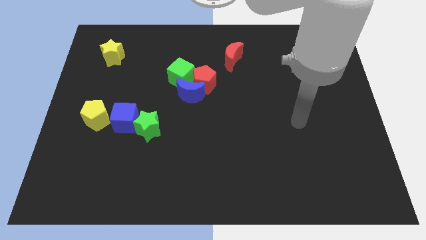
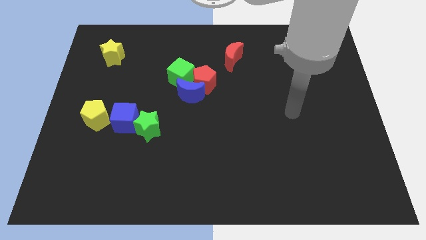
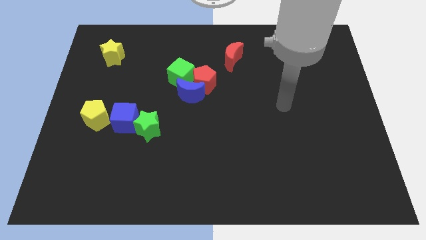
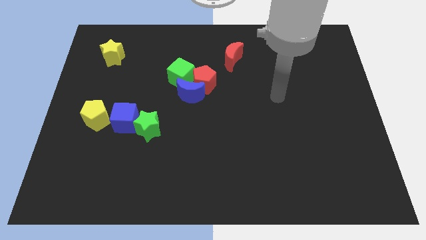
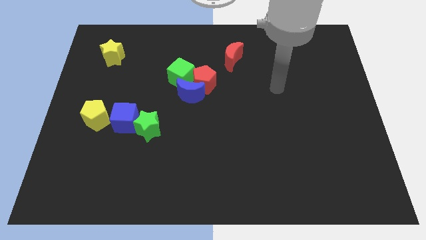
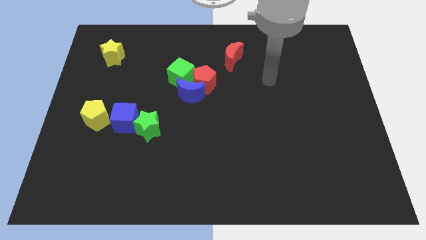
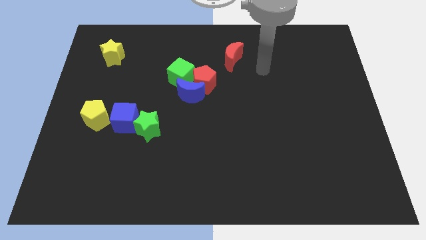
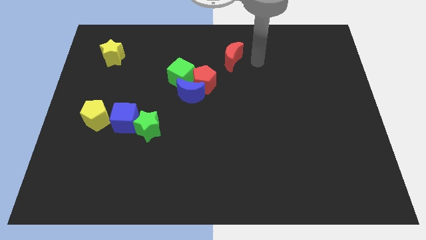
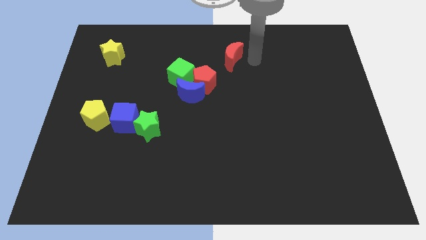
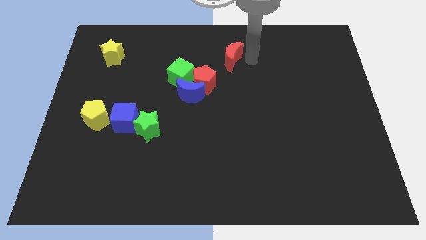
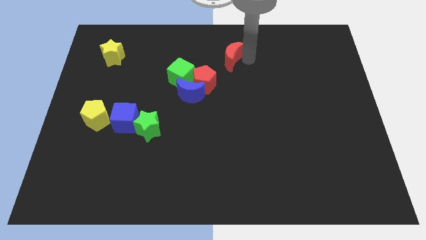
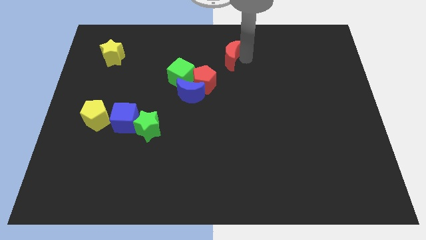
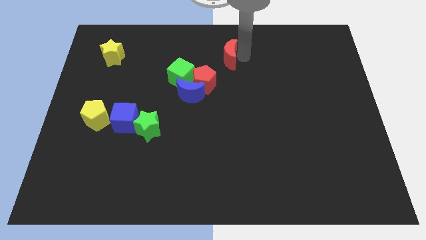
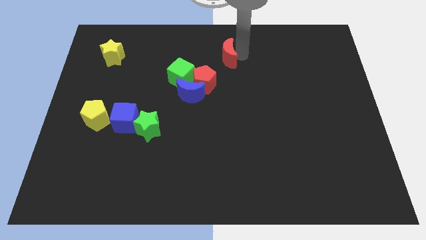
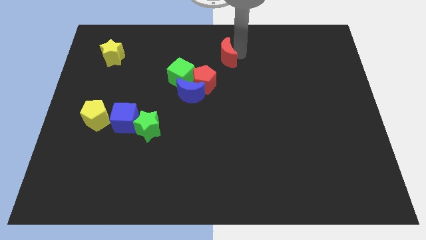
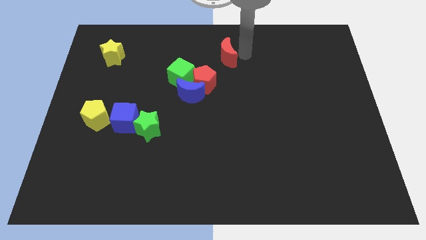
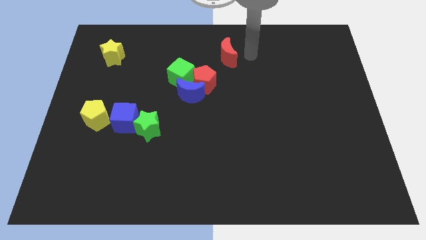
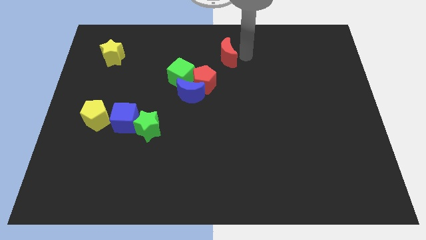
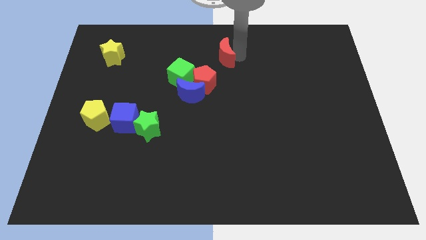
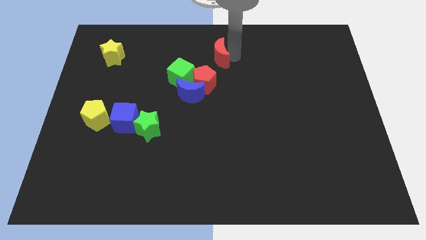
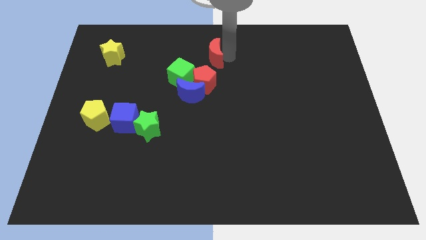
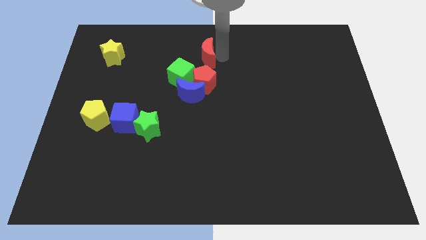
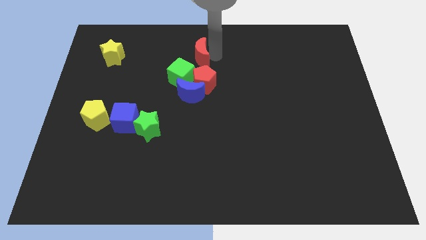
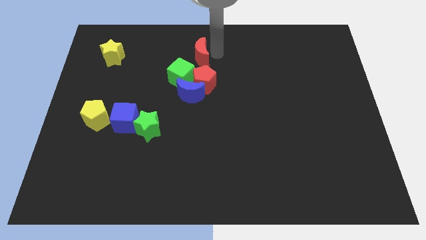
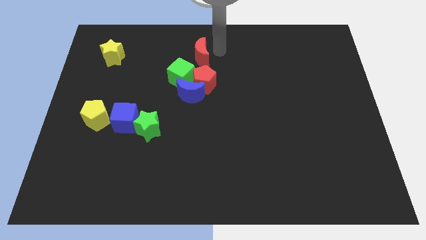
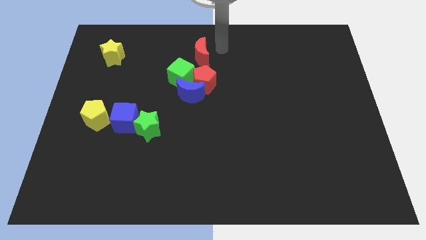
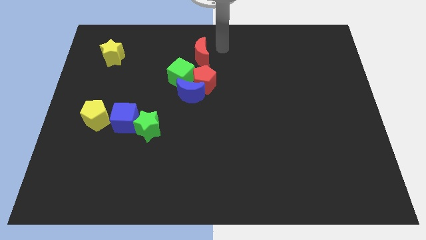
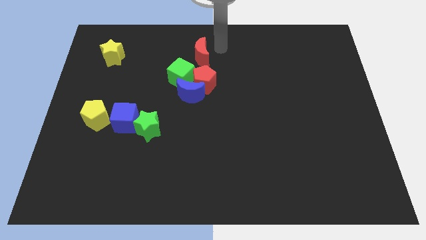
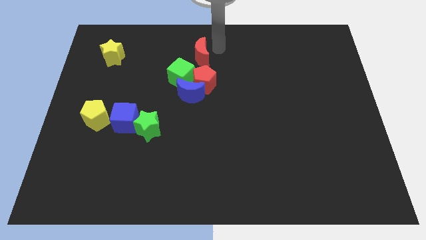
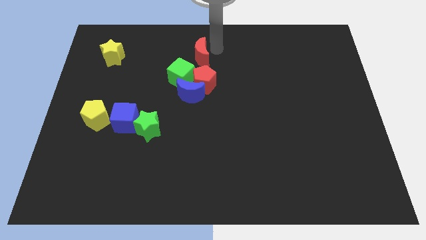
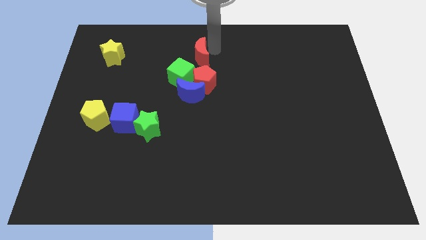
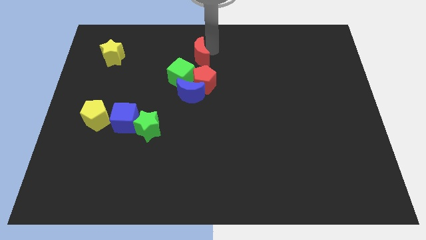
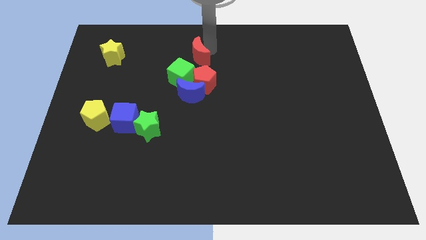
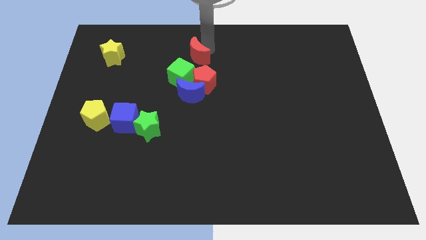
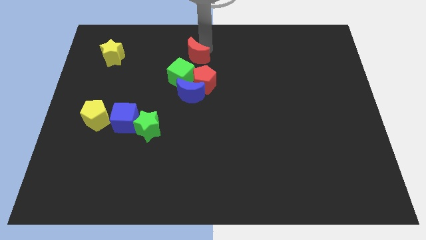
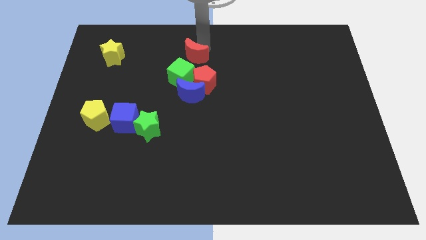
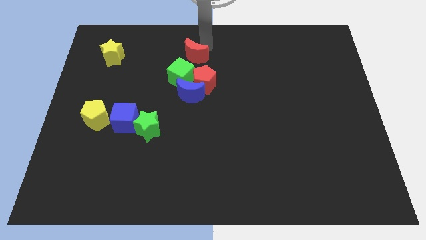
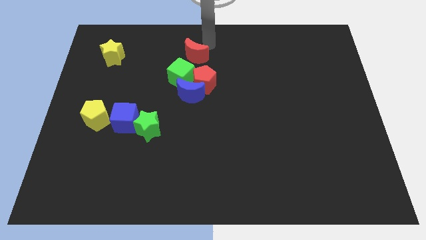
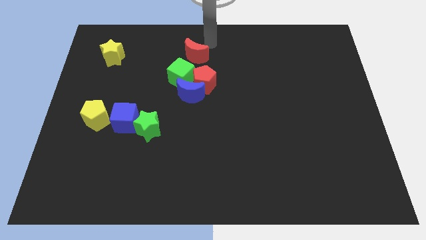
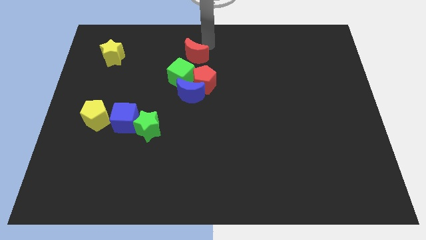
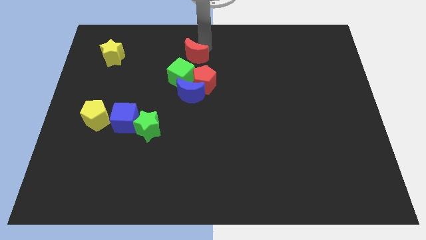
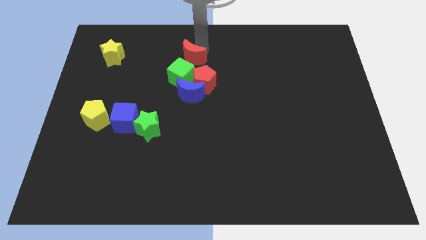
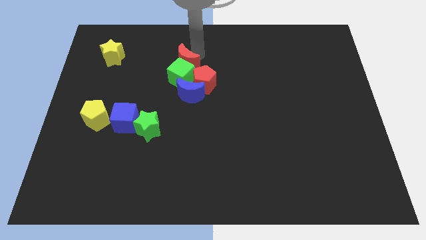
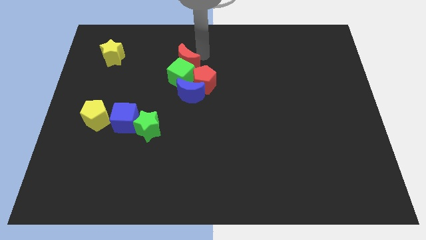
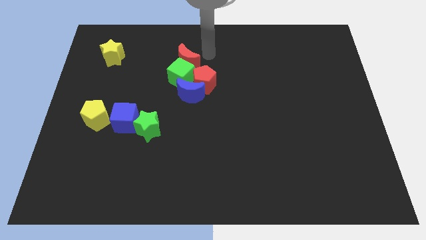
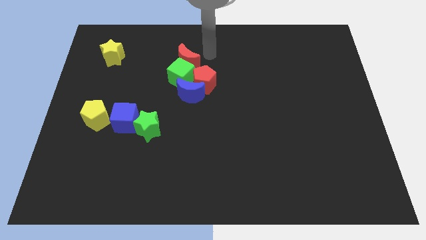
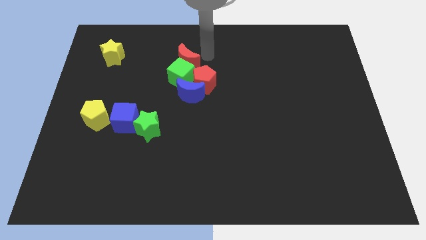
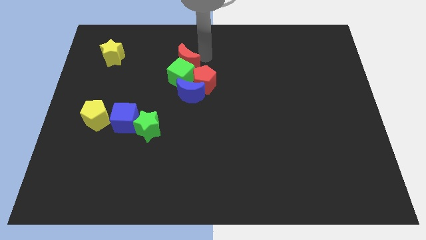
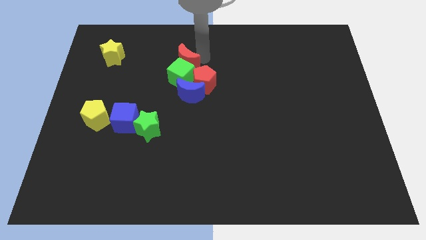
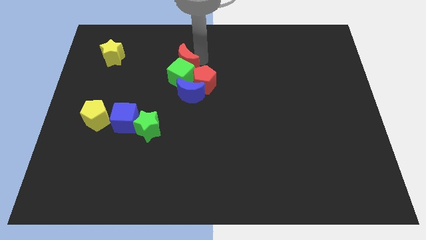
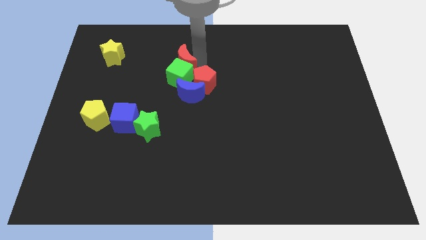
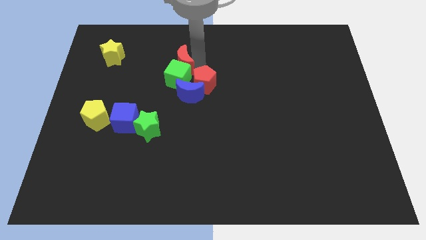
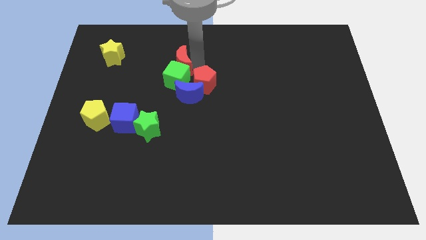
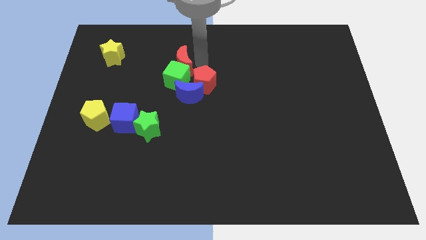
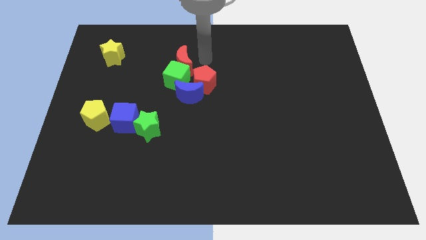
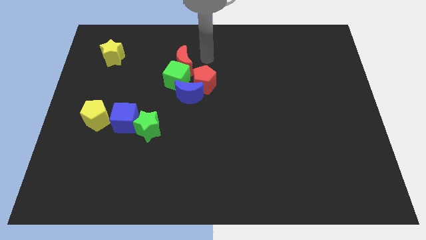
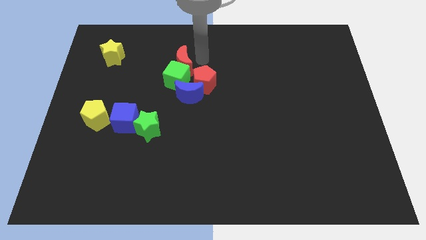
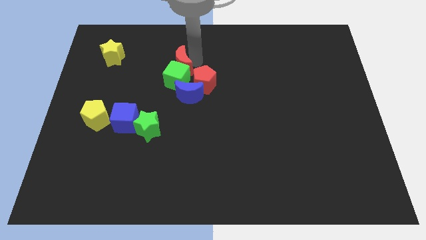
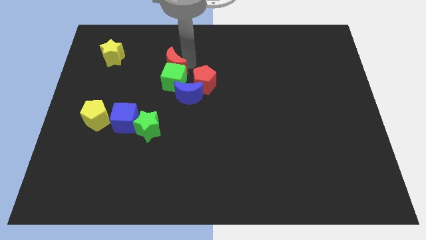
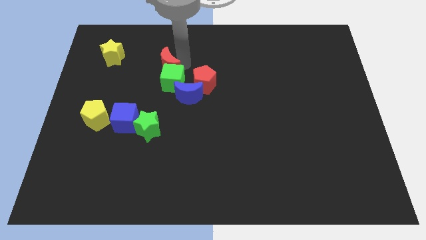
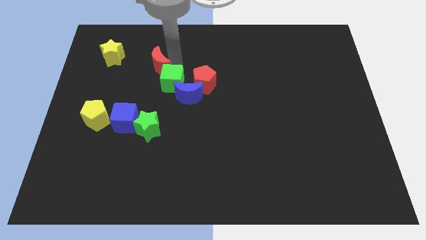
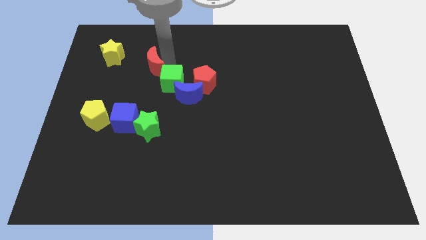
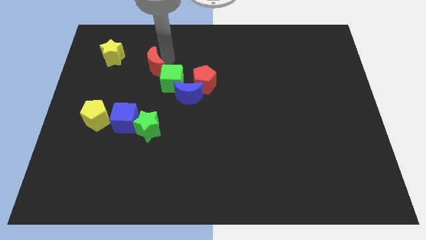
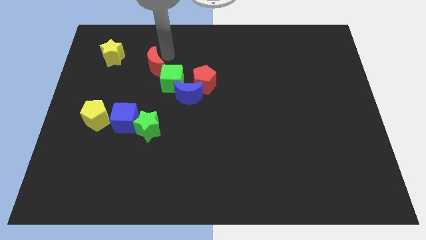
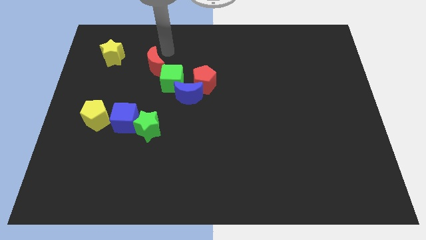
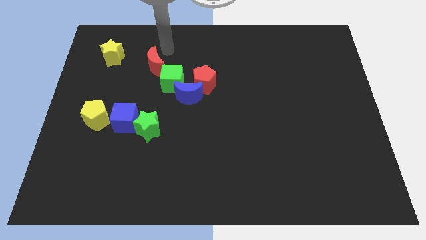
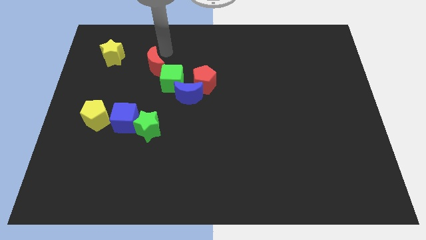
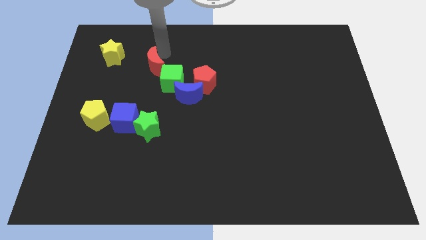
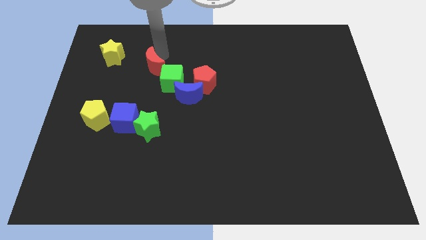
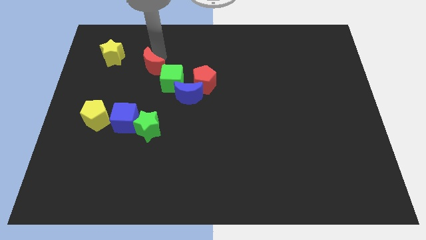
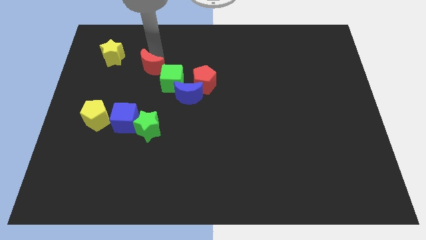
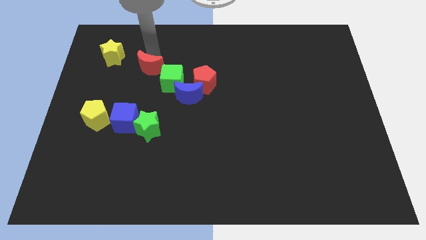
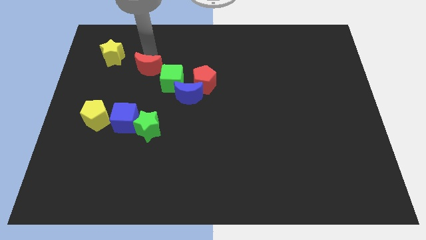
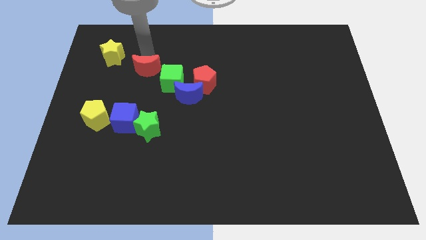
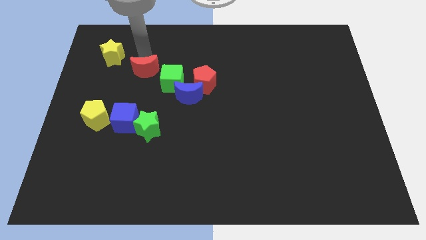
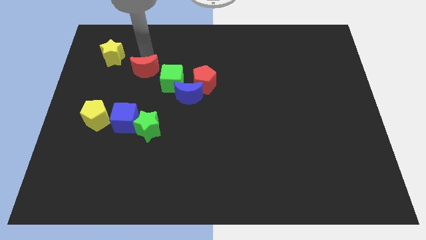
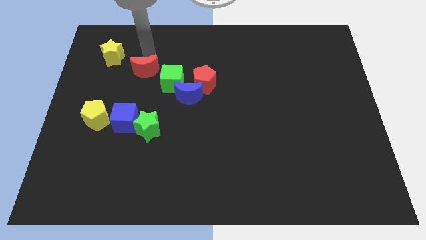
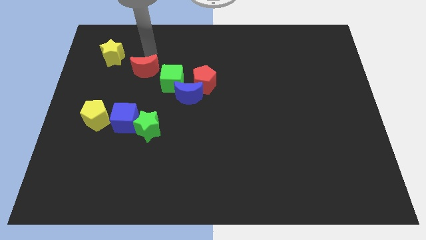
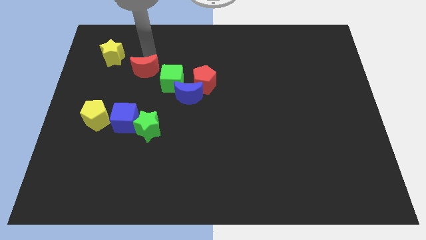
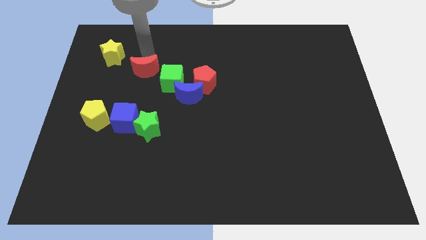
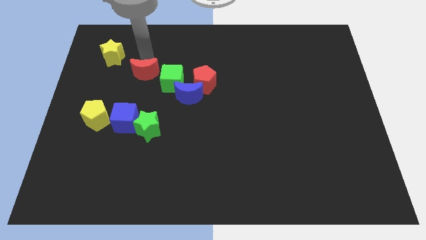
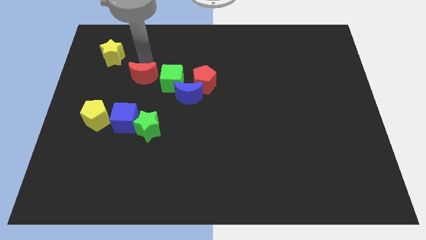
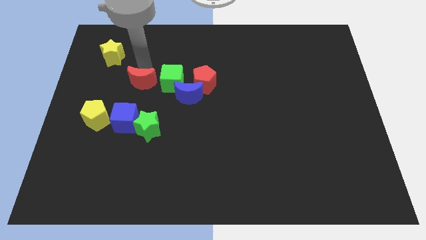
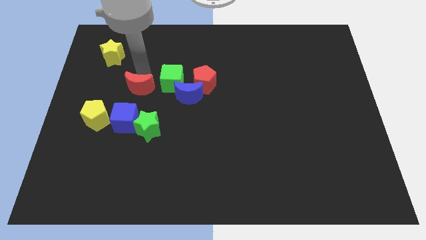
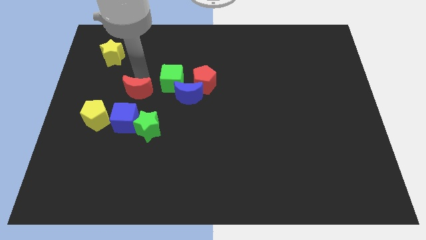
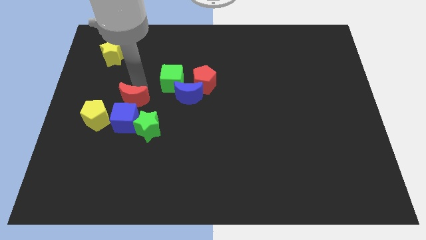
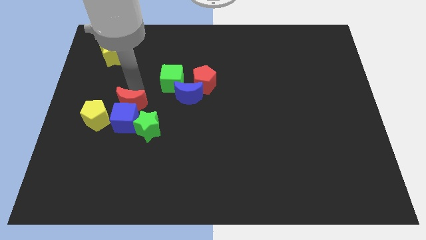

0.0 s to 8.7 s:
push the red moon close to the blue cube
